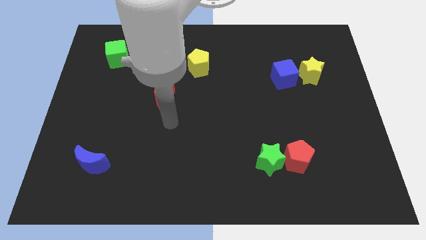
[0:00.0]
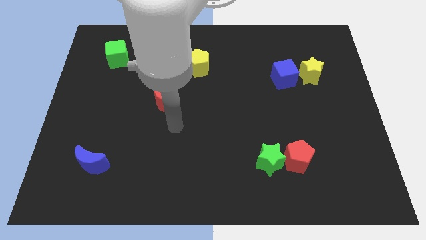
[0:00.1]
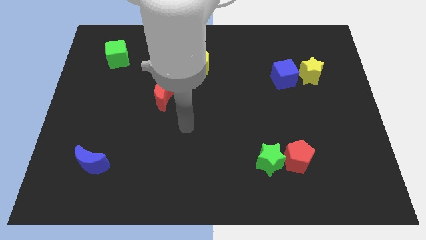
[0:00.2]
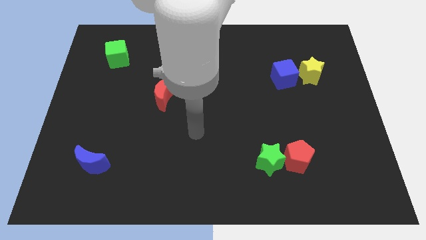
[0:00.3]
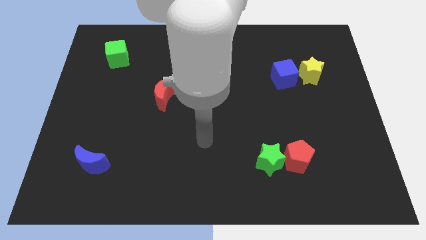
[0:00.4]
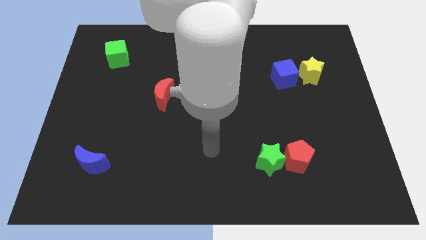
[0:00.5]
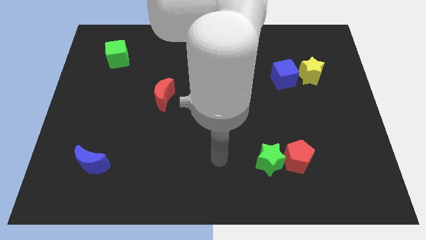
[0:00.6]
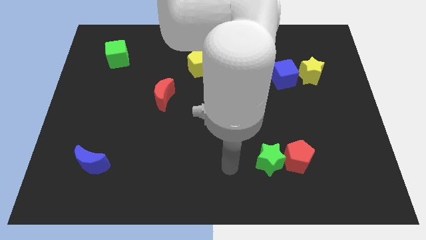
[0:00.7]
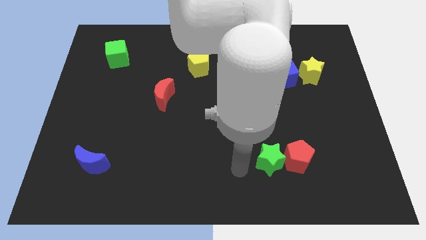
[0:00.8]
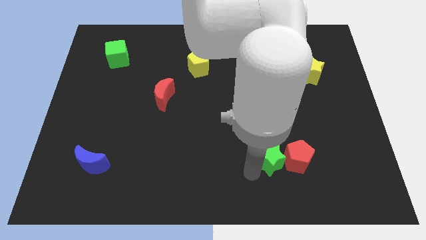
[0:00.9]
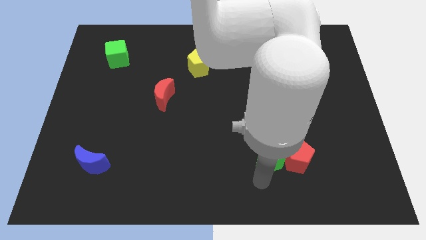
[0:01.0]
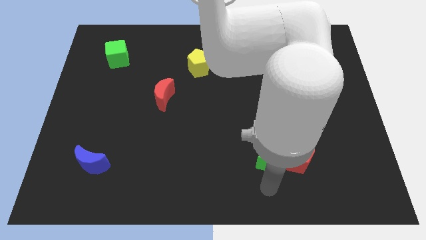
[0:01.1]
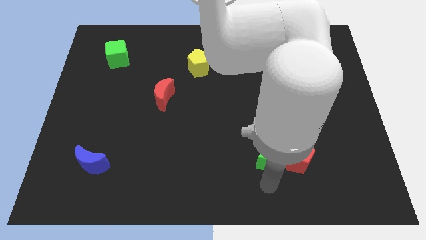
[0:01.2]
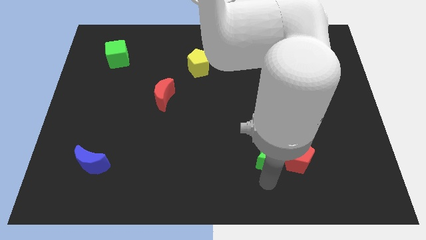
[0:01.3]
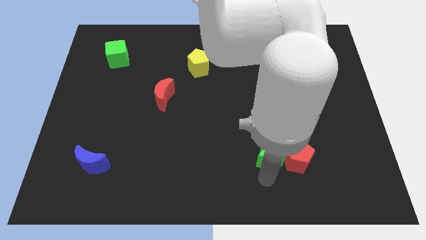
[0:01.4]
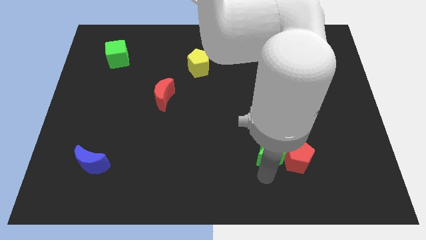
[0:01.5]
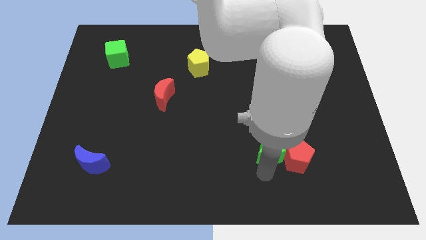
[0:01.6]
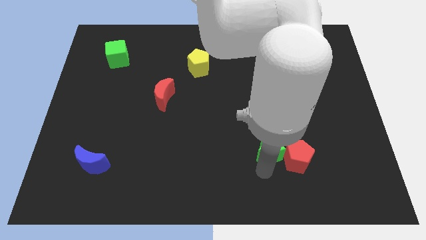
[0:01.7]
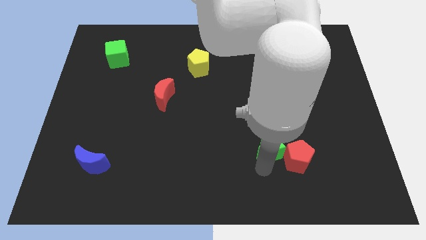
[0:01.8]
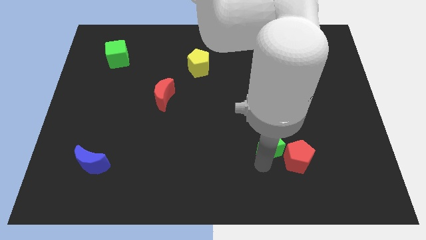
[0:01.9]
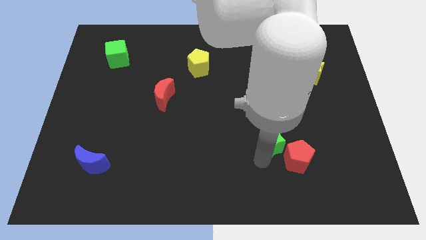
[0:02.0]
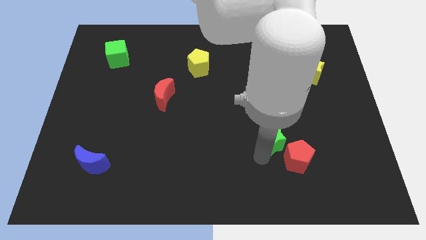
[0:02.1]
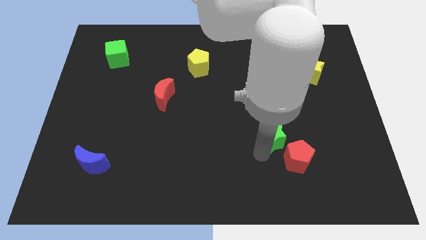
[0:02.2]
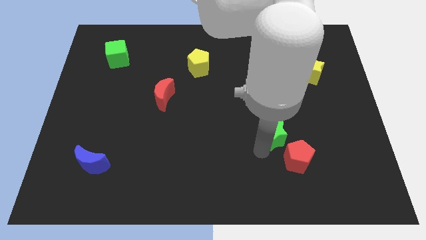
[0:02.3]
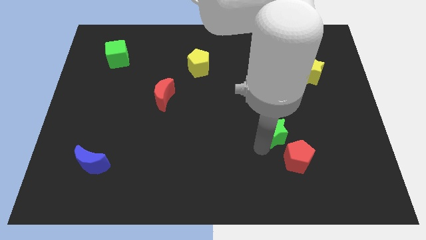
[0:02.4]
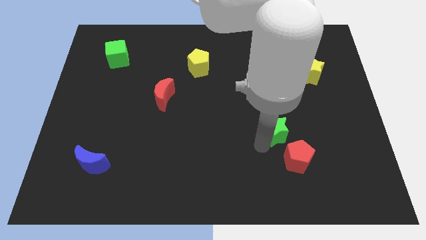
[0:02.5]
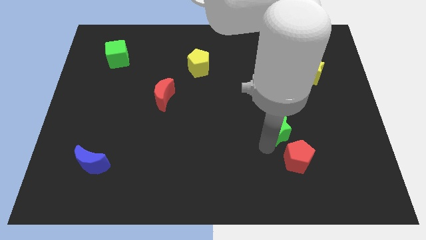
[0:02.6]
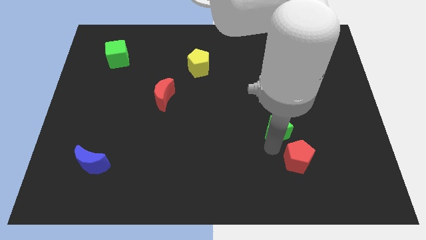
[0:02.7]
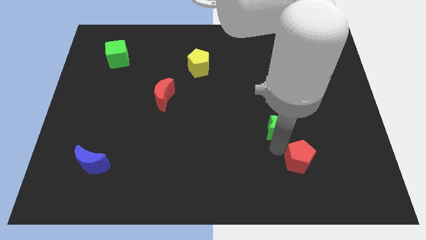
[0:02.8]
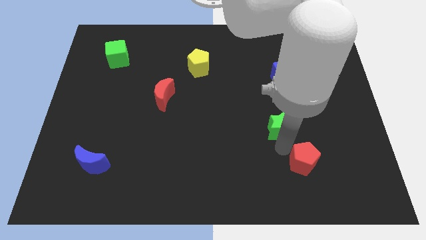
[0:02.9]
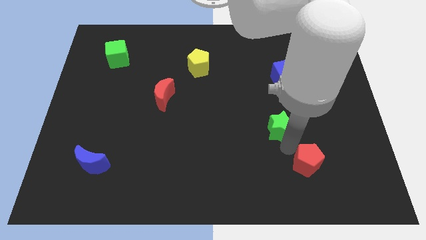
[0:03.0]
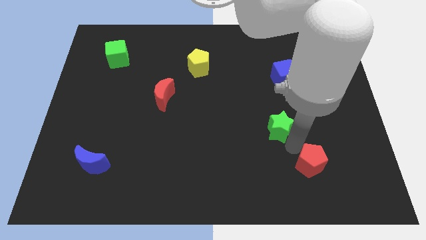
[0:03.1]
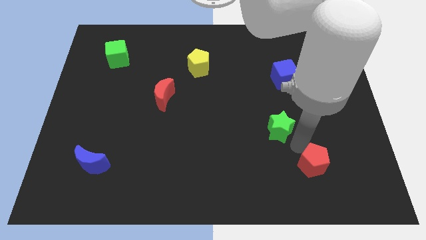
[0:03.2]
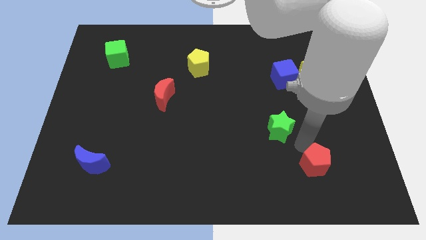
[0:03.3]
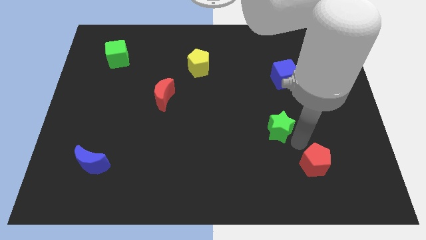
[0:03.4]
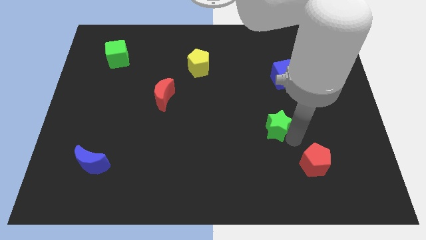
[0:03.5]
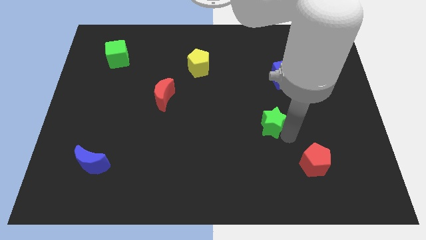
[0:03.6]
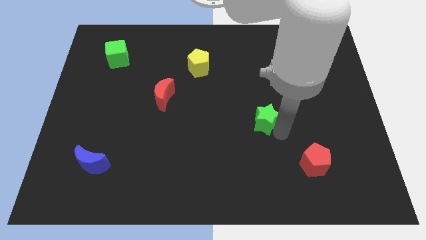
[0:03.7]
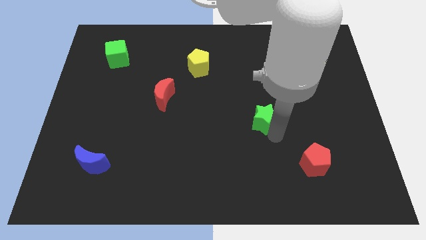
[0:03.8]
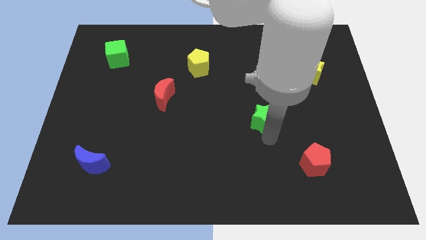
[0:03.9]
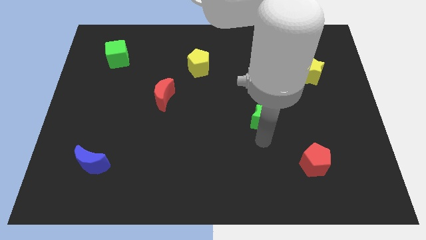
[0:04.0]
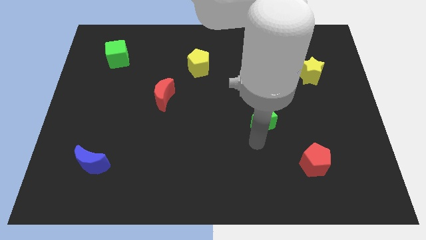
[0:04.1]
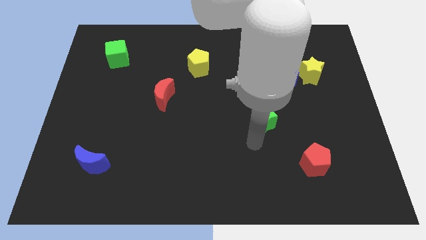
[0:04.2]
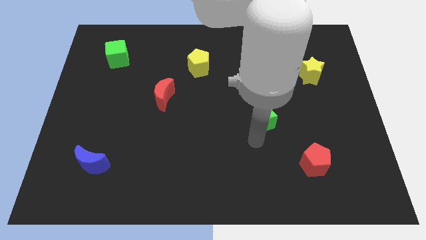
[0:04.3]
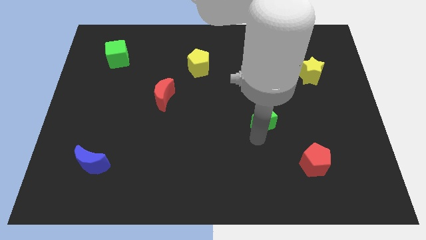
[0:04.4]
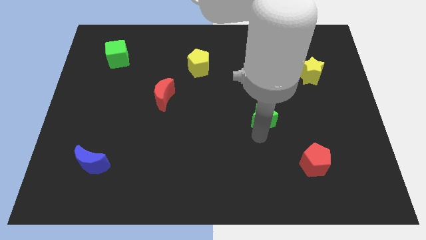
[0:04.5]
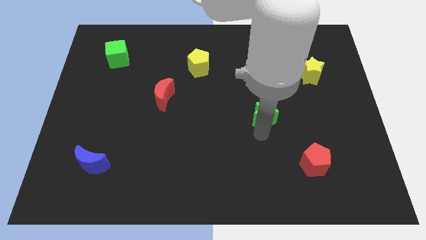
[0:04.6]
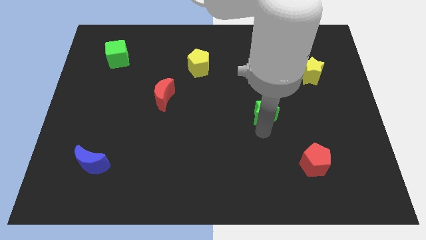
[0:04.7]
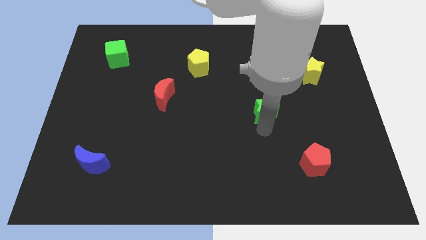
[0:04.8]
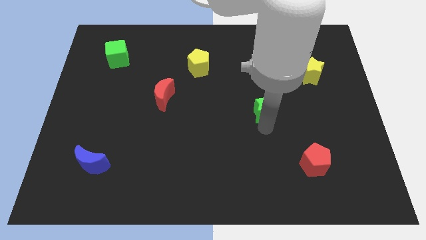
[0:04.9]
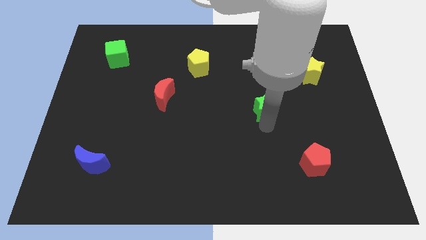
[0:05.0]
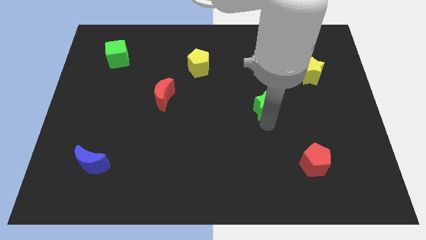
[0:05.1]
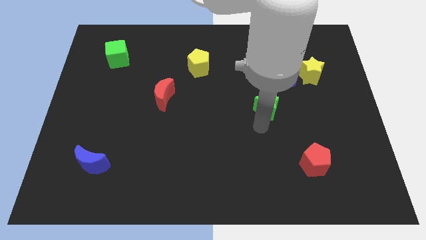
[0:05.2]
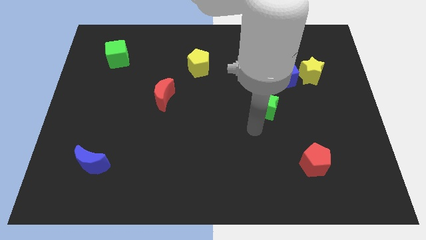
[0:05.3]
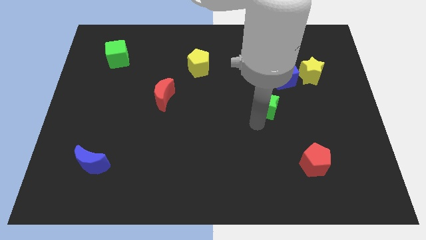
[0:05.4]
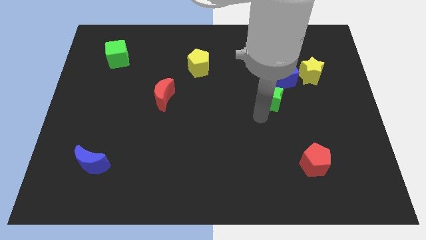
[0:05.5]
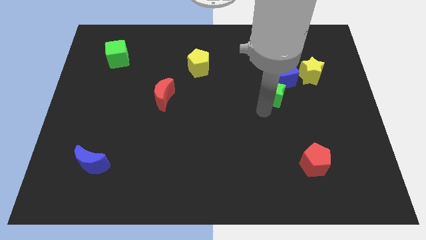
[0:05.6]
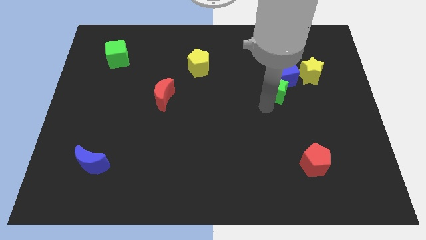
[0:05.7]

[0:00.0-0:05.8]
move the green star to the blue cube
